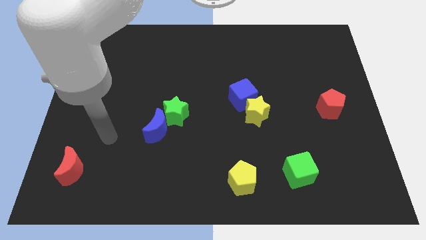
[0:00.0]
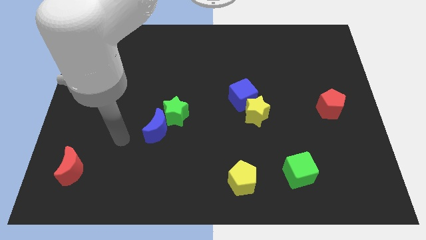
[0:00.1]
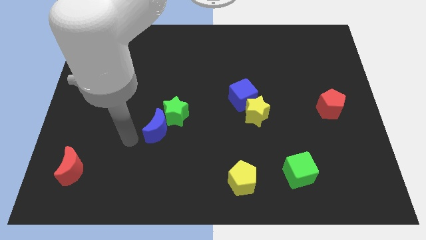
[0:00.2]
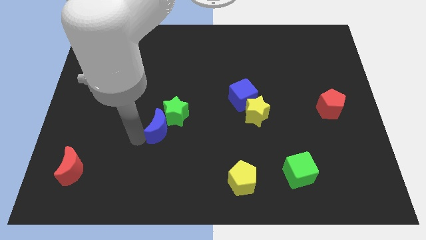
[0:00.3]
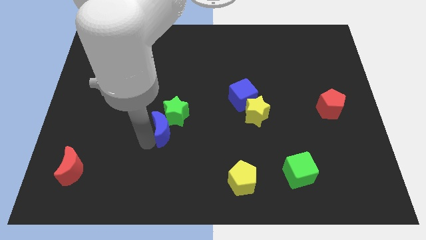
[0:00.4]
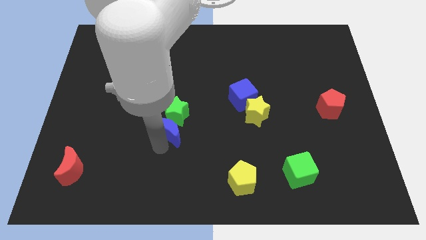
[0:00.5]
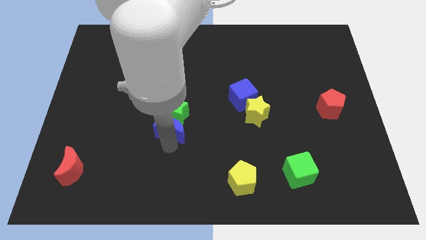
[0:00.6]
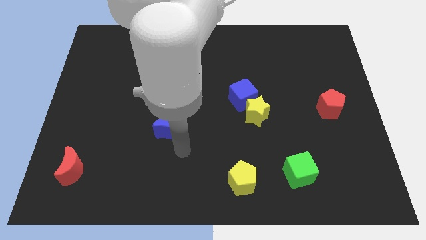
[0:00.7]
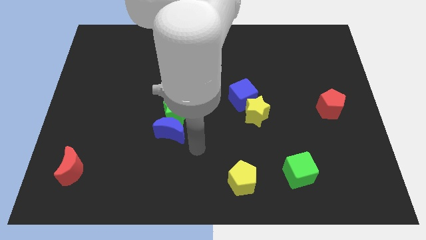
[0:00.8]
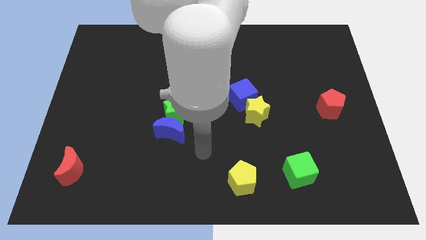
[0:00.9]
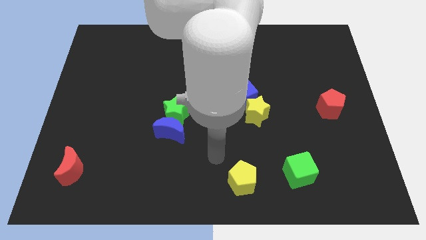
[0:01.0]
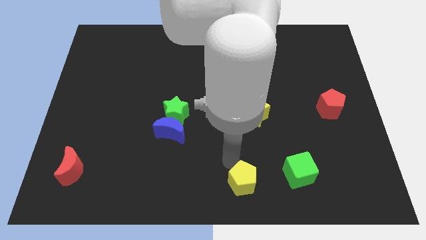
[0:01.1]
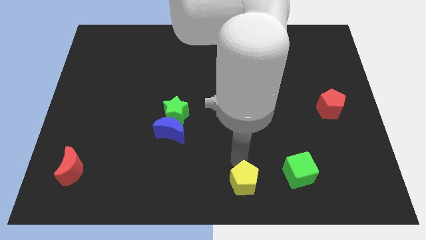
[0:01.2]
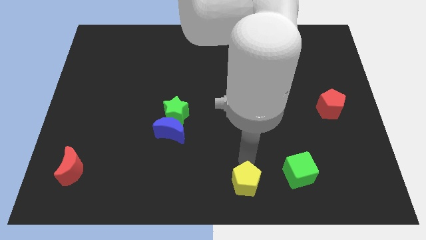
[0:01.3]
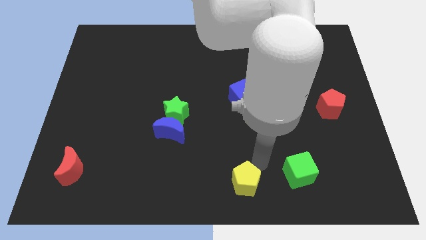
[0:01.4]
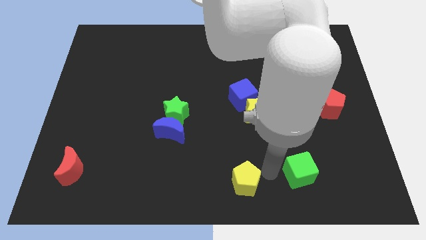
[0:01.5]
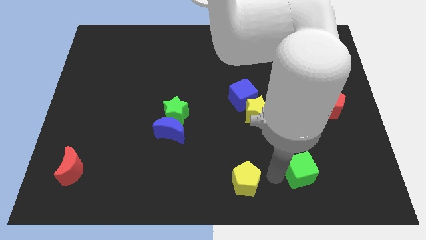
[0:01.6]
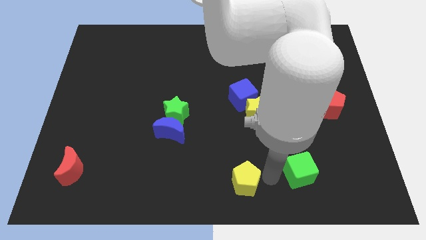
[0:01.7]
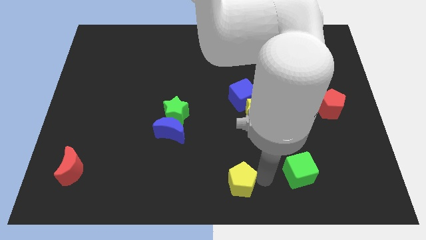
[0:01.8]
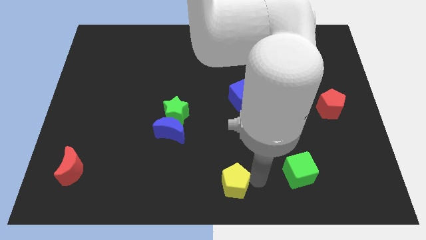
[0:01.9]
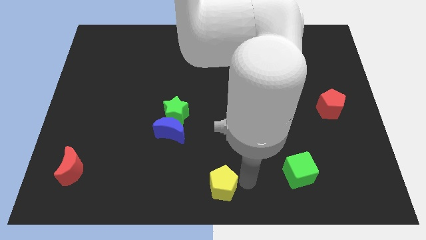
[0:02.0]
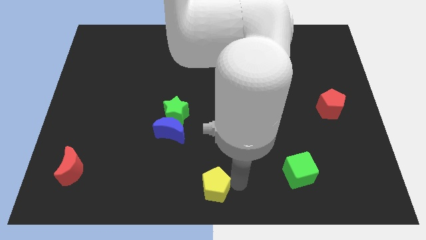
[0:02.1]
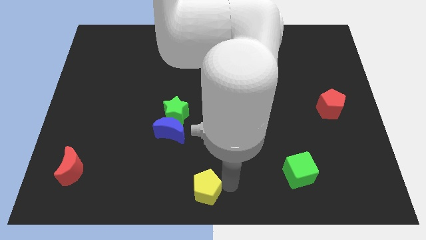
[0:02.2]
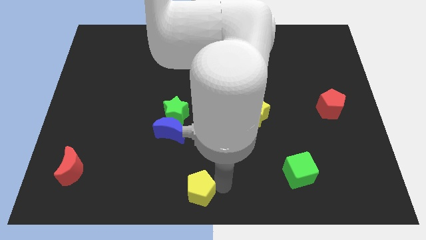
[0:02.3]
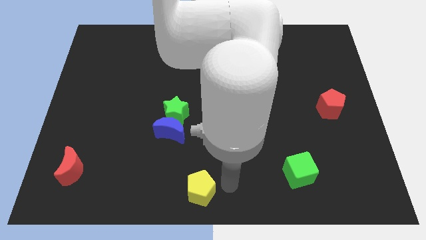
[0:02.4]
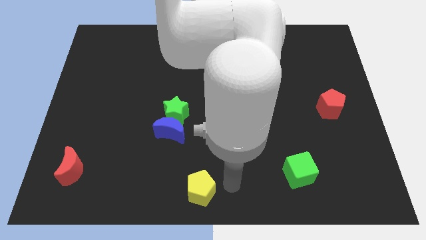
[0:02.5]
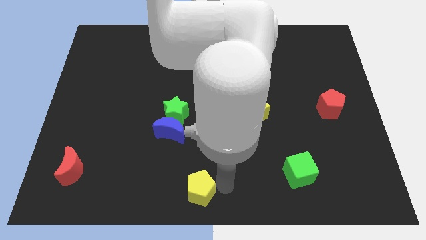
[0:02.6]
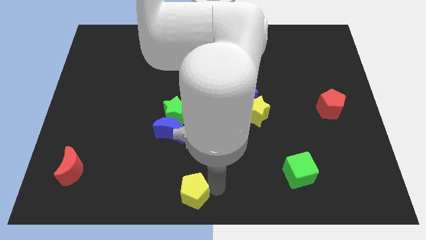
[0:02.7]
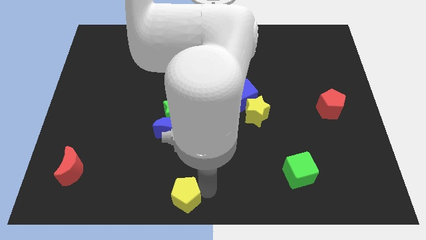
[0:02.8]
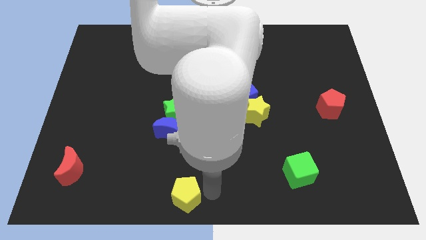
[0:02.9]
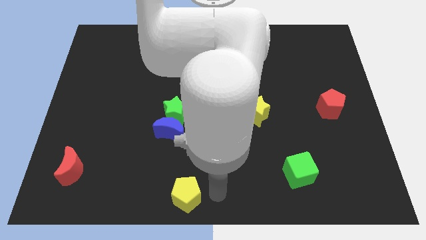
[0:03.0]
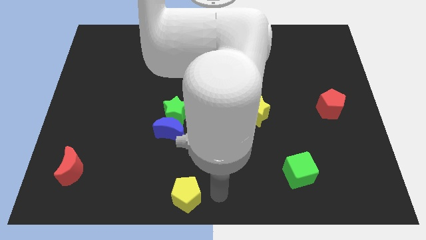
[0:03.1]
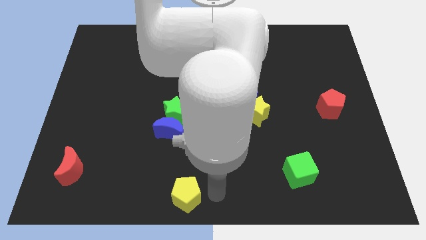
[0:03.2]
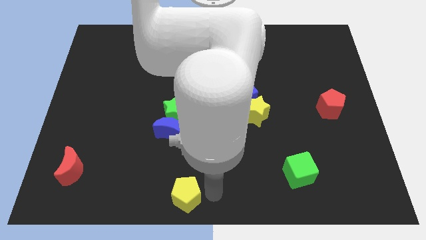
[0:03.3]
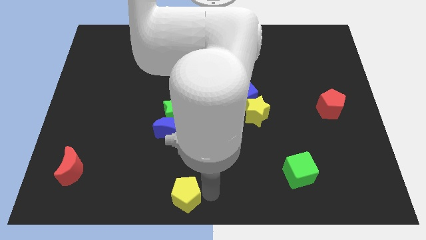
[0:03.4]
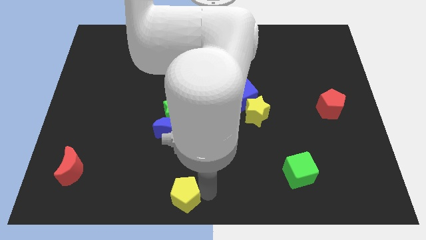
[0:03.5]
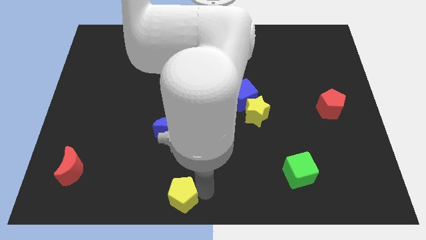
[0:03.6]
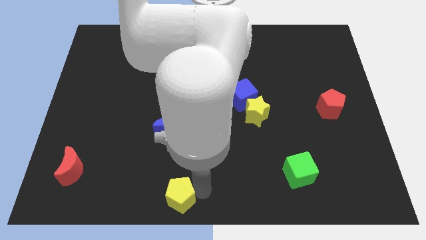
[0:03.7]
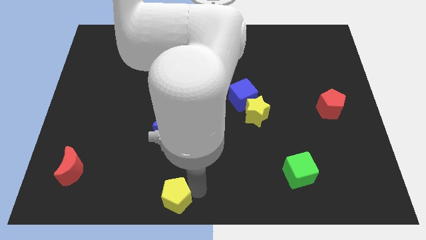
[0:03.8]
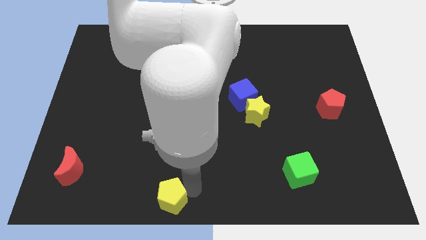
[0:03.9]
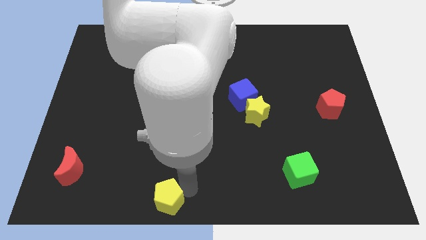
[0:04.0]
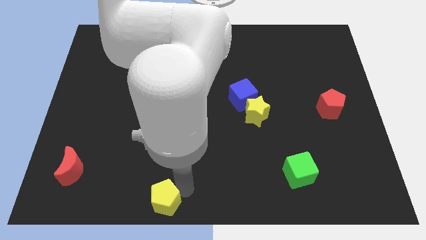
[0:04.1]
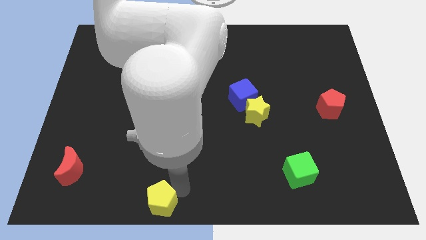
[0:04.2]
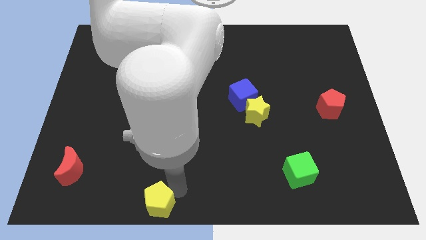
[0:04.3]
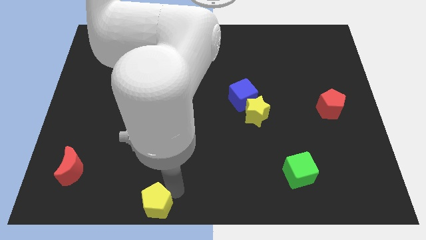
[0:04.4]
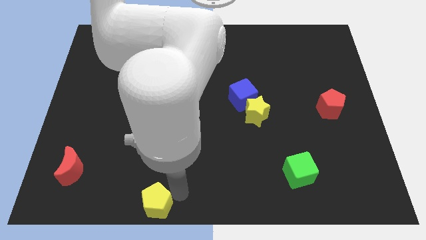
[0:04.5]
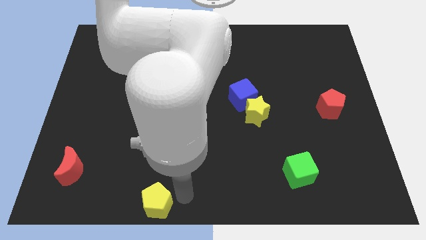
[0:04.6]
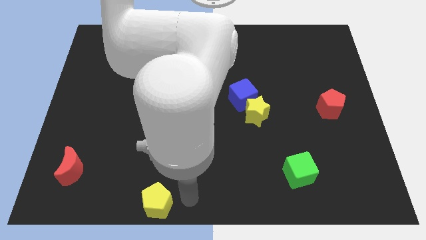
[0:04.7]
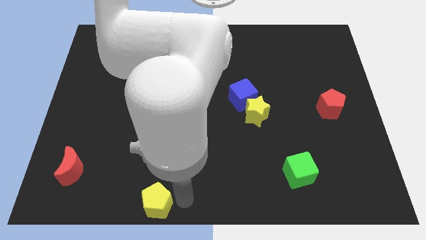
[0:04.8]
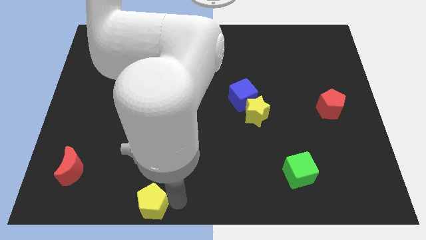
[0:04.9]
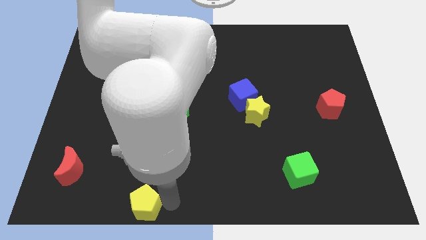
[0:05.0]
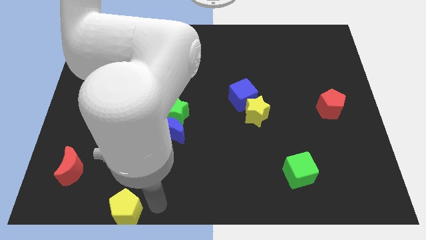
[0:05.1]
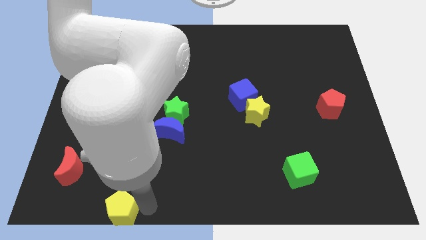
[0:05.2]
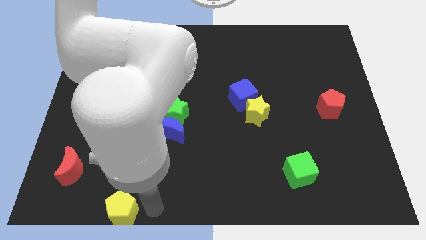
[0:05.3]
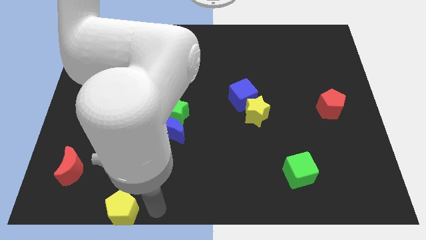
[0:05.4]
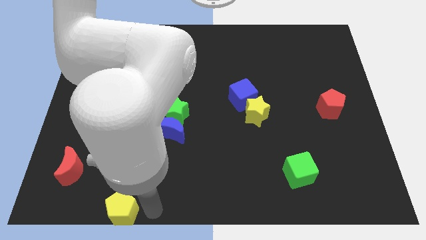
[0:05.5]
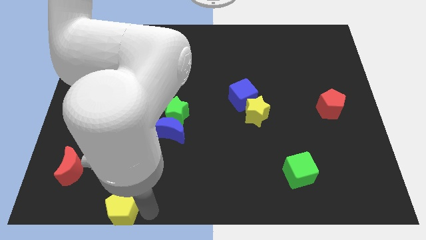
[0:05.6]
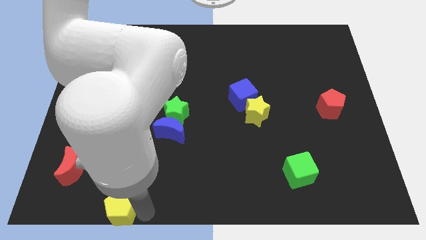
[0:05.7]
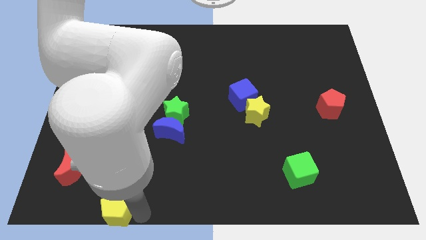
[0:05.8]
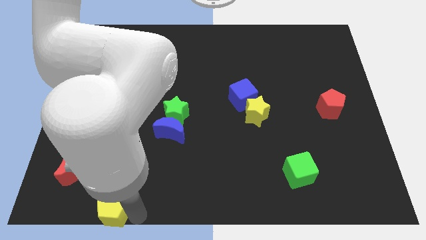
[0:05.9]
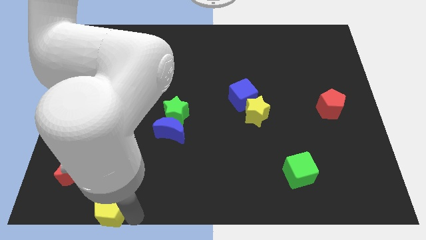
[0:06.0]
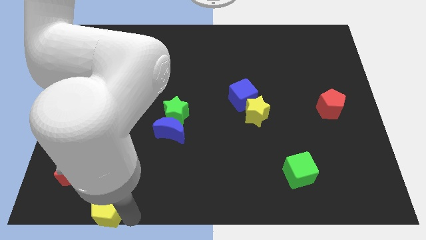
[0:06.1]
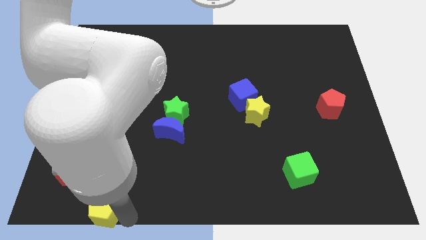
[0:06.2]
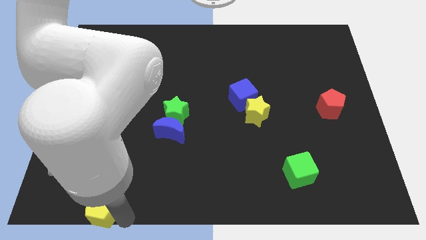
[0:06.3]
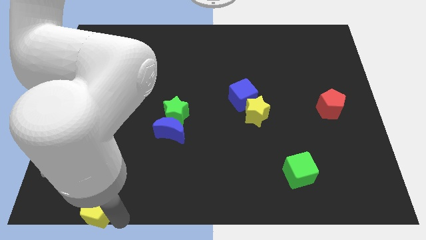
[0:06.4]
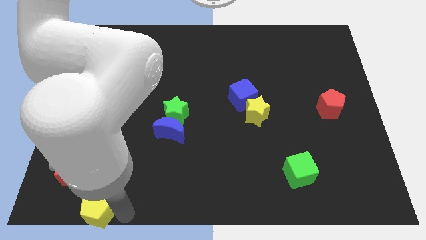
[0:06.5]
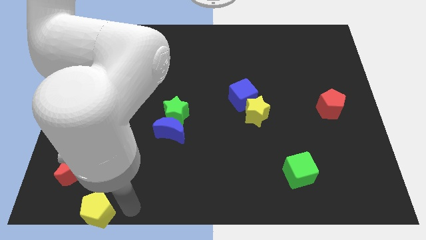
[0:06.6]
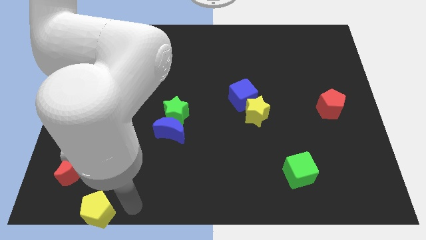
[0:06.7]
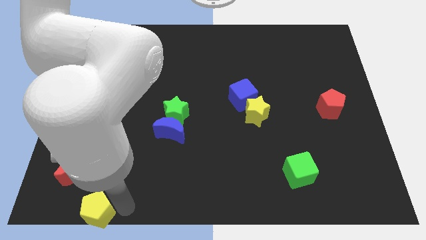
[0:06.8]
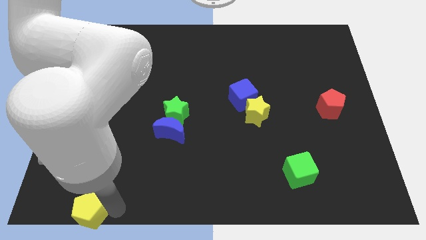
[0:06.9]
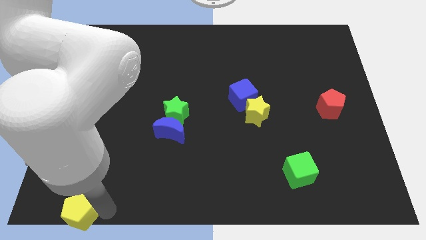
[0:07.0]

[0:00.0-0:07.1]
slide the yellow pentagon to the bottom left of the board
